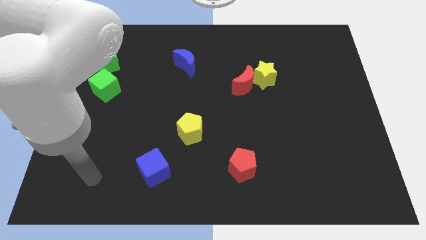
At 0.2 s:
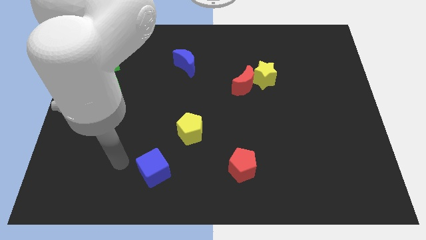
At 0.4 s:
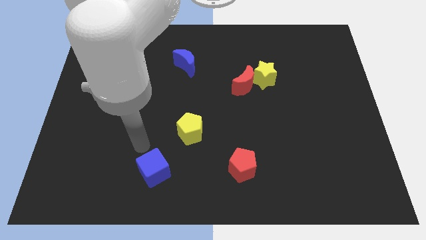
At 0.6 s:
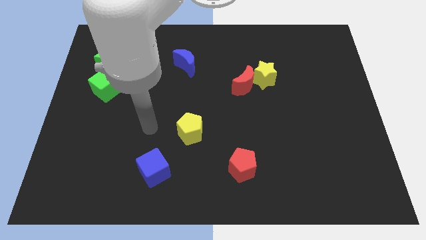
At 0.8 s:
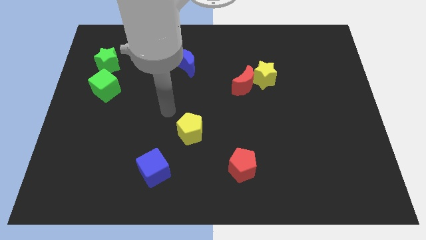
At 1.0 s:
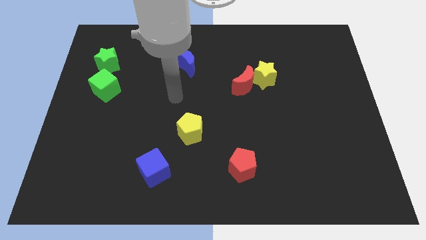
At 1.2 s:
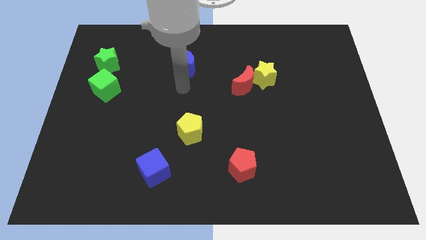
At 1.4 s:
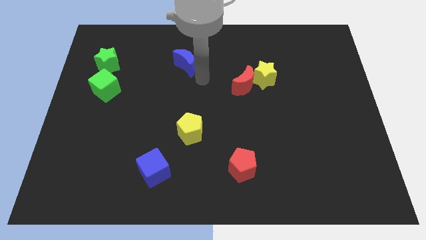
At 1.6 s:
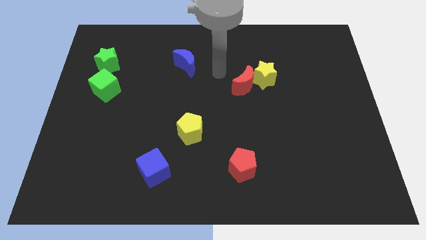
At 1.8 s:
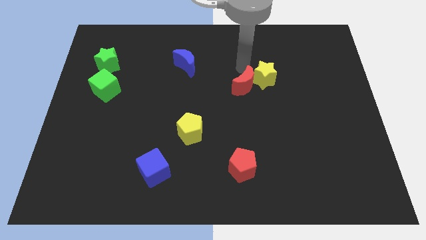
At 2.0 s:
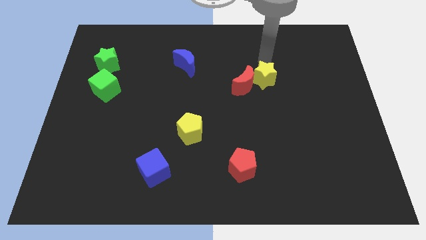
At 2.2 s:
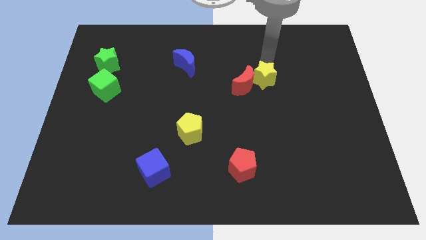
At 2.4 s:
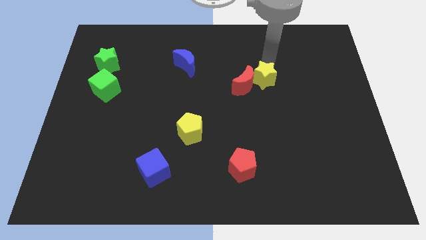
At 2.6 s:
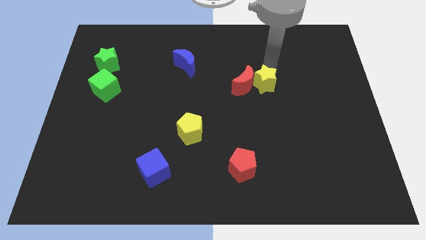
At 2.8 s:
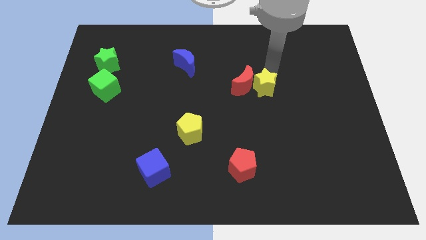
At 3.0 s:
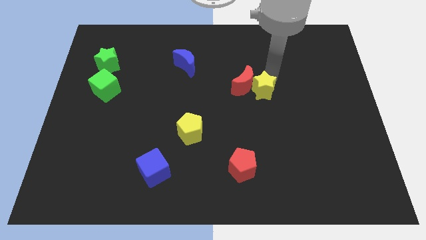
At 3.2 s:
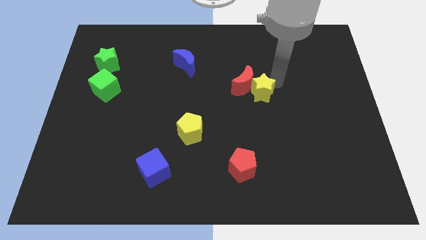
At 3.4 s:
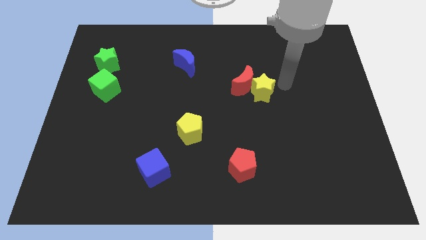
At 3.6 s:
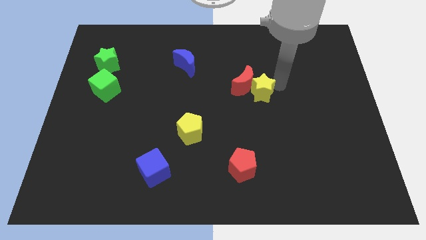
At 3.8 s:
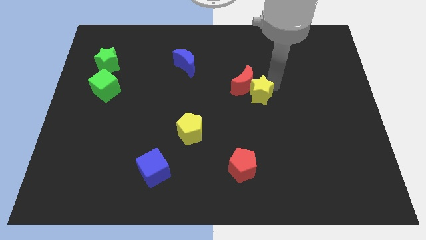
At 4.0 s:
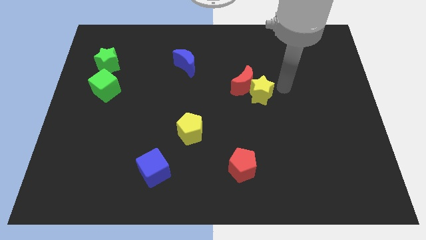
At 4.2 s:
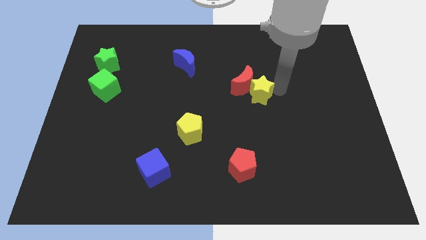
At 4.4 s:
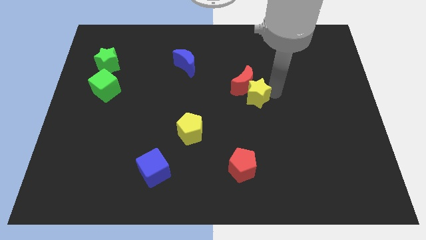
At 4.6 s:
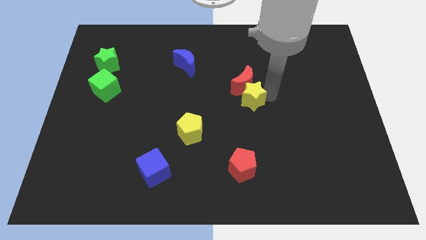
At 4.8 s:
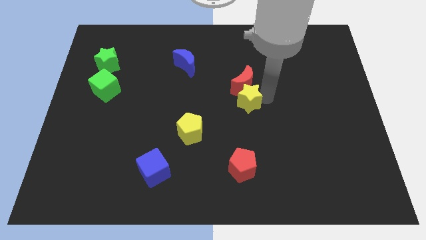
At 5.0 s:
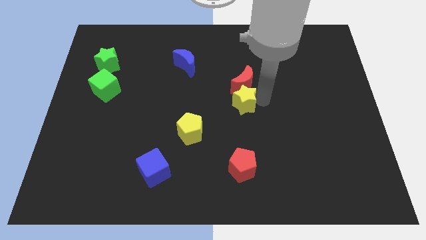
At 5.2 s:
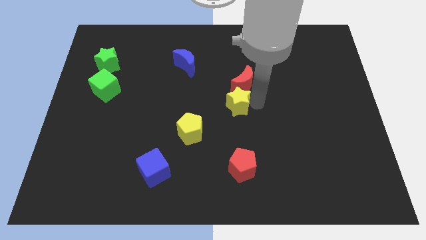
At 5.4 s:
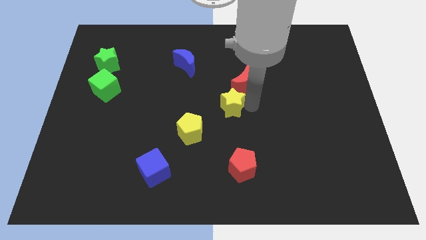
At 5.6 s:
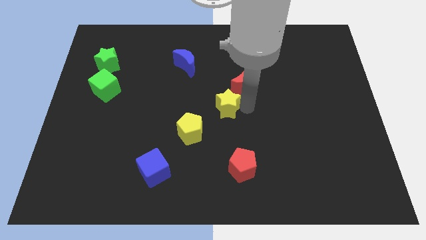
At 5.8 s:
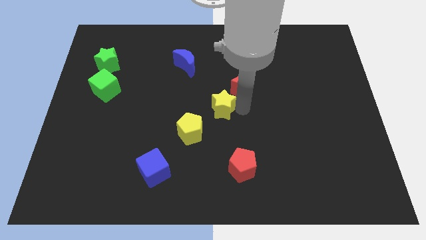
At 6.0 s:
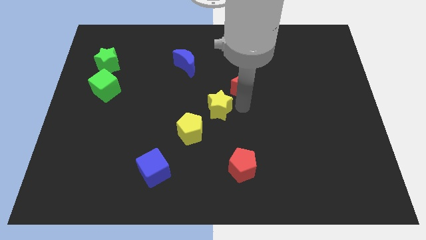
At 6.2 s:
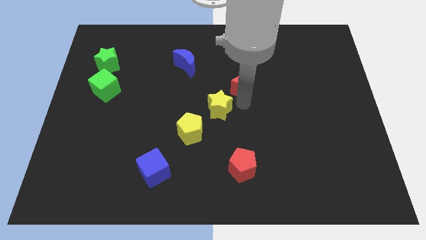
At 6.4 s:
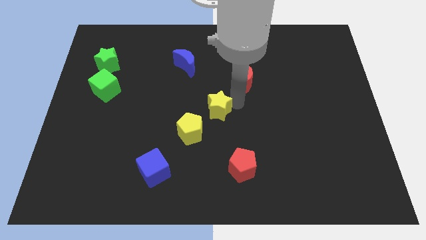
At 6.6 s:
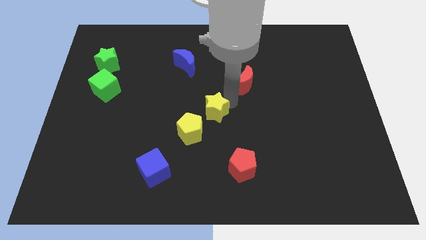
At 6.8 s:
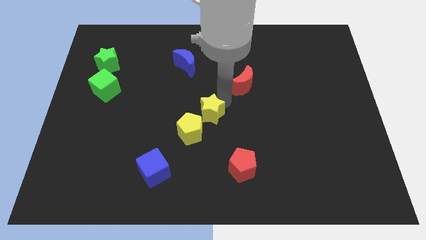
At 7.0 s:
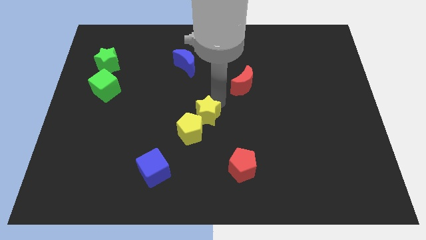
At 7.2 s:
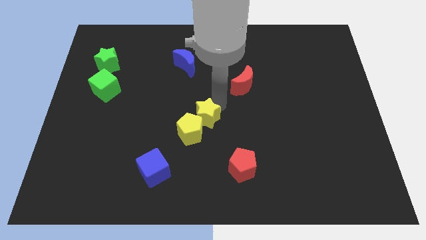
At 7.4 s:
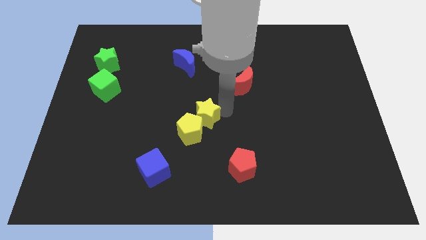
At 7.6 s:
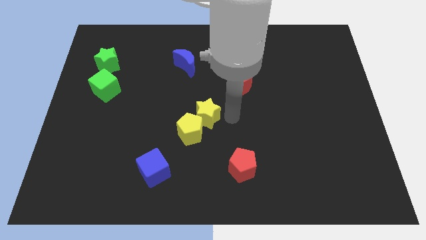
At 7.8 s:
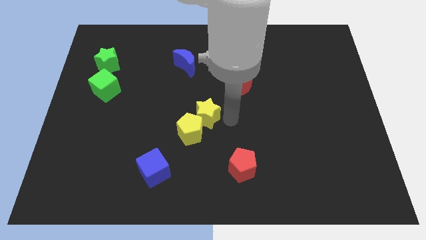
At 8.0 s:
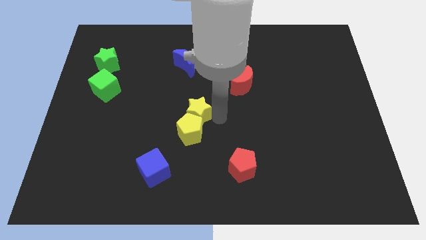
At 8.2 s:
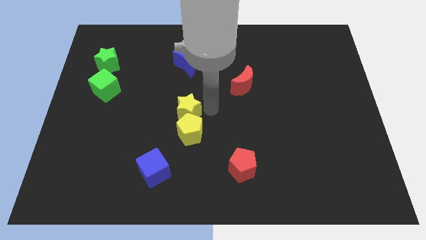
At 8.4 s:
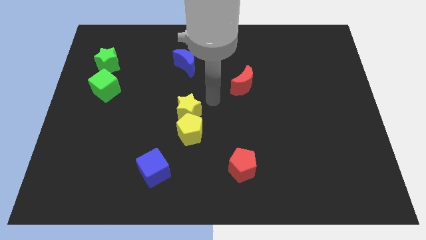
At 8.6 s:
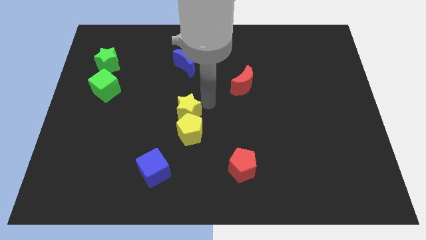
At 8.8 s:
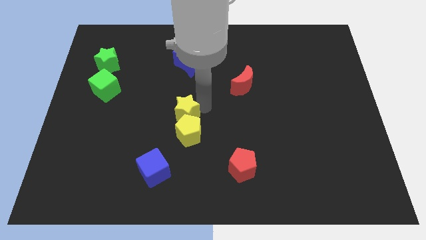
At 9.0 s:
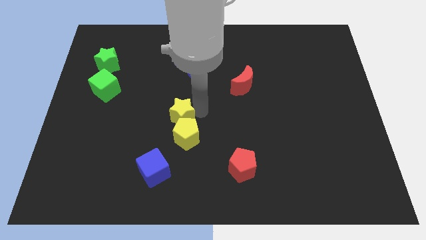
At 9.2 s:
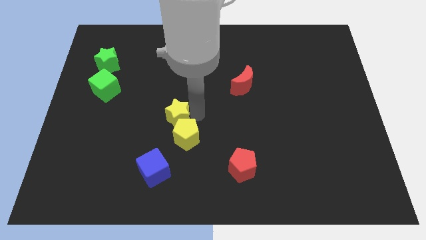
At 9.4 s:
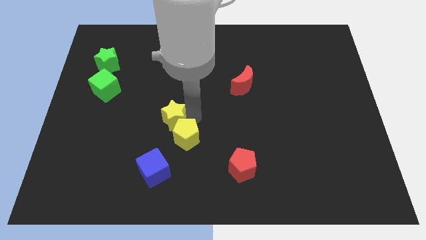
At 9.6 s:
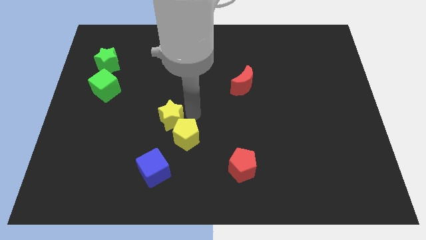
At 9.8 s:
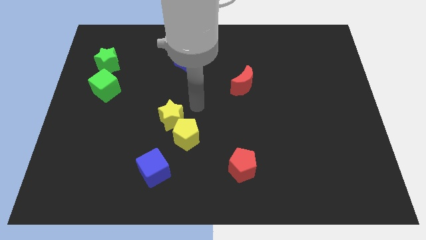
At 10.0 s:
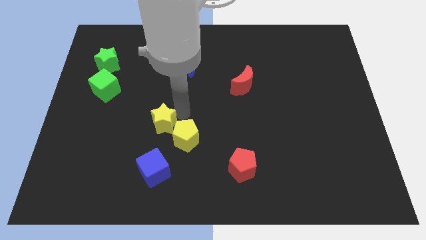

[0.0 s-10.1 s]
slide the yellow star to the left side of the yellow pentagon

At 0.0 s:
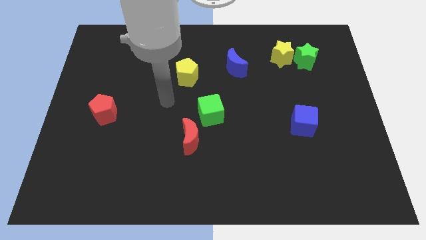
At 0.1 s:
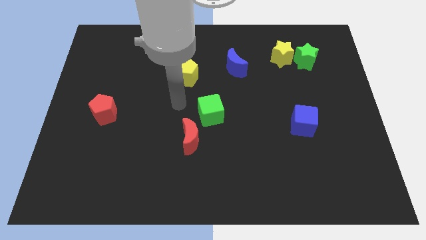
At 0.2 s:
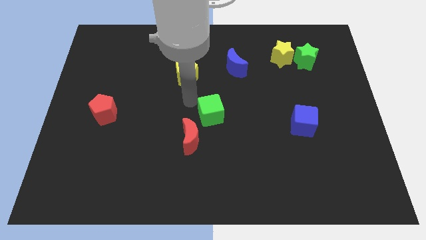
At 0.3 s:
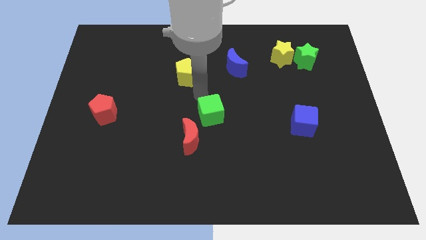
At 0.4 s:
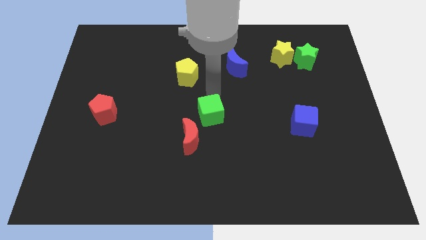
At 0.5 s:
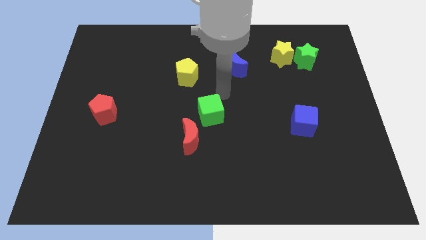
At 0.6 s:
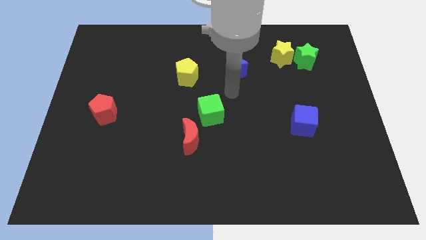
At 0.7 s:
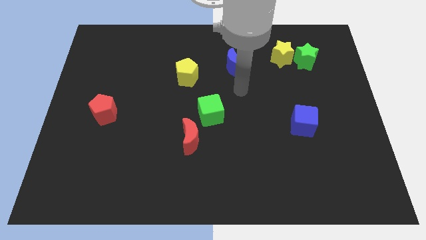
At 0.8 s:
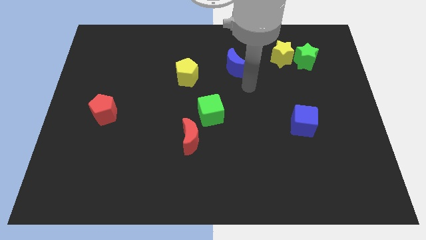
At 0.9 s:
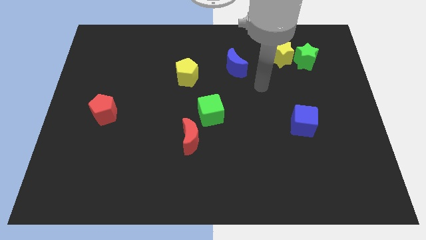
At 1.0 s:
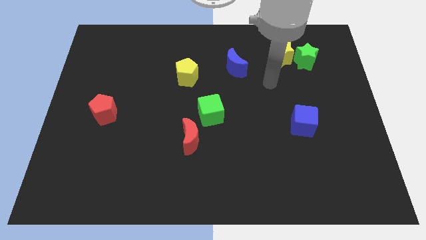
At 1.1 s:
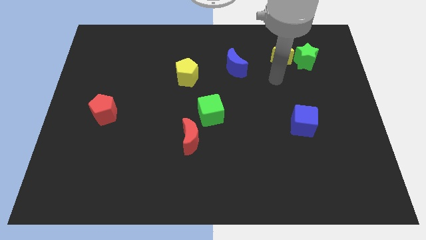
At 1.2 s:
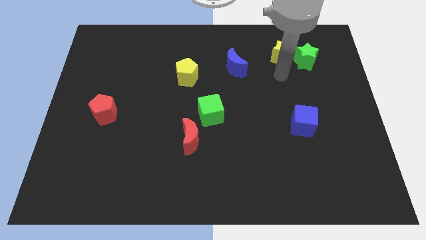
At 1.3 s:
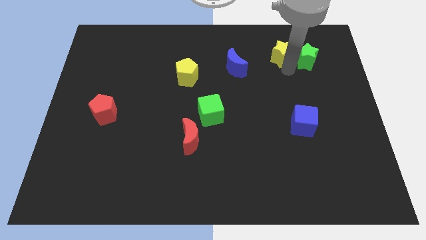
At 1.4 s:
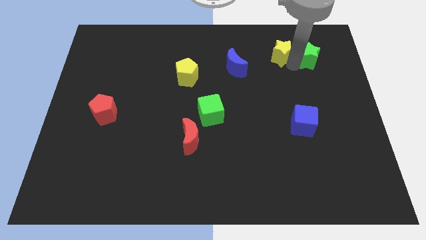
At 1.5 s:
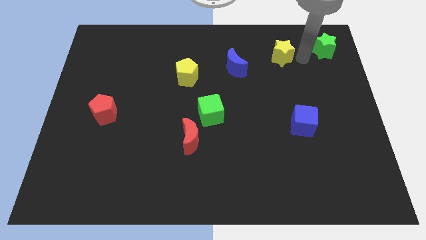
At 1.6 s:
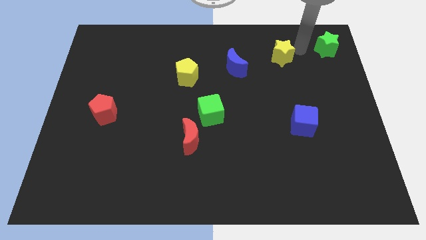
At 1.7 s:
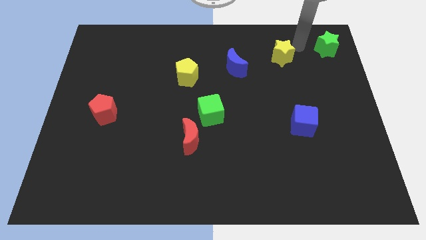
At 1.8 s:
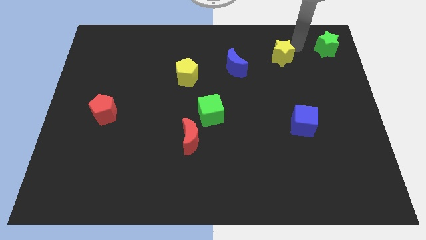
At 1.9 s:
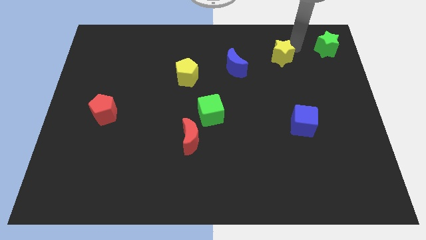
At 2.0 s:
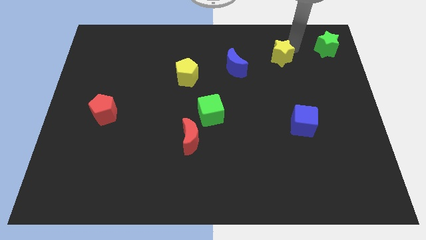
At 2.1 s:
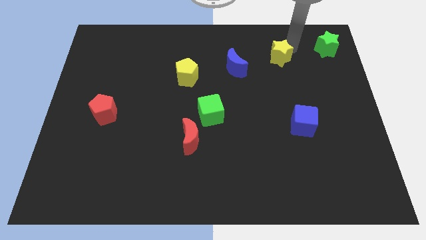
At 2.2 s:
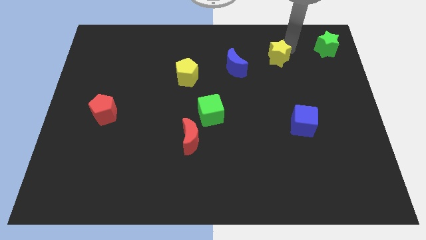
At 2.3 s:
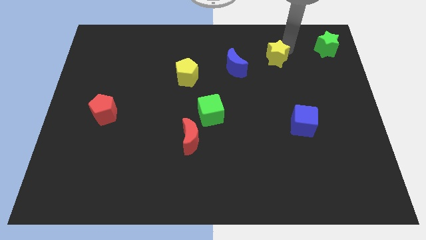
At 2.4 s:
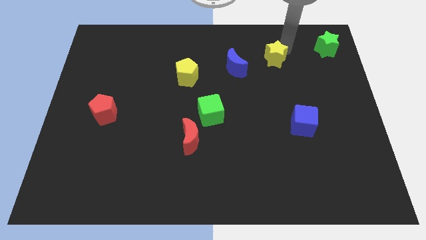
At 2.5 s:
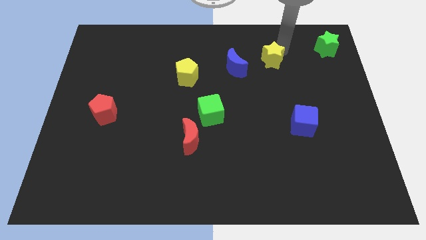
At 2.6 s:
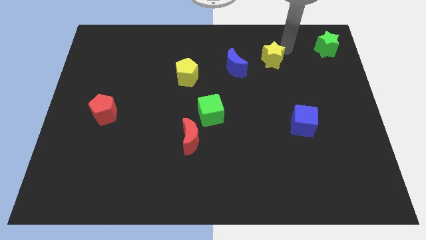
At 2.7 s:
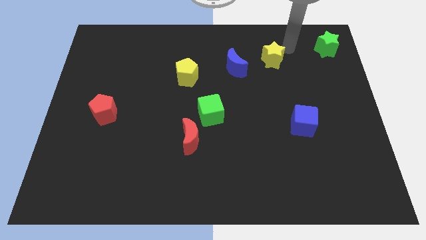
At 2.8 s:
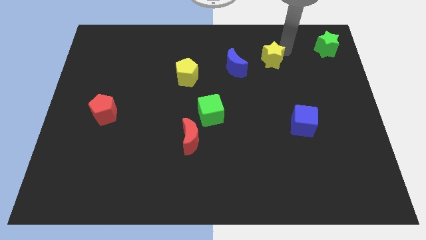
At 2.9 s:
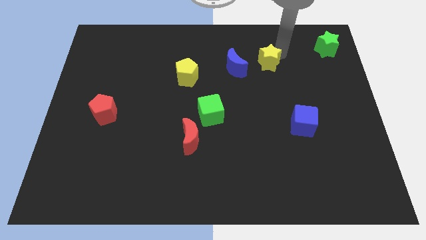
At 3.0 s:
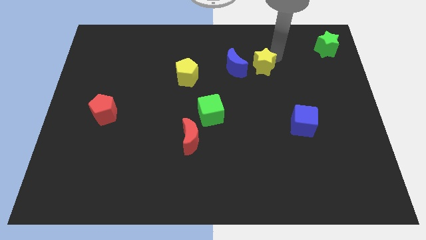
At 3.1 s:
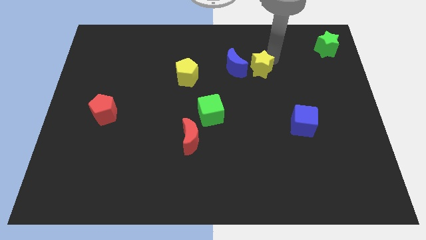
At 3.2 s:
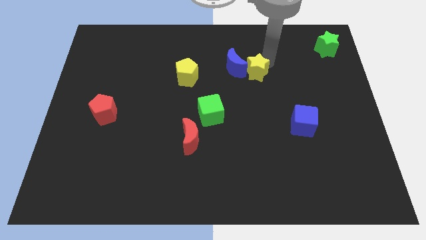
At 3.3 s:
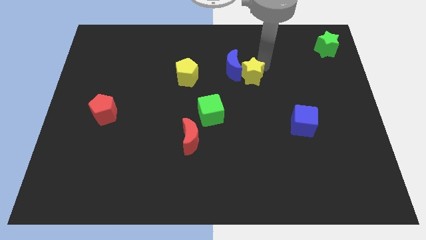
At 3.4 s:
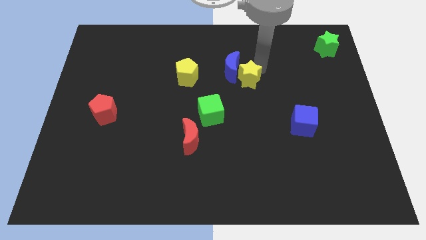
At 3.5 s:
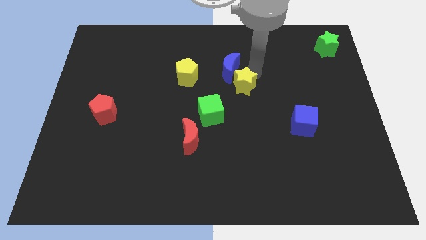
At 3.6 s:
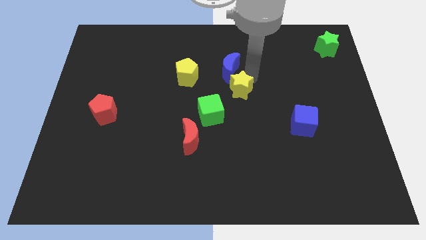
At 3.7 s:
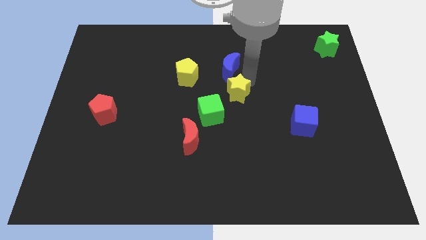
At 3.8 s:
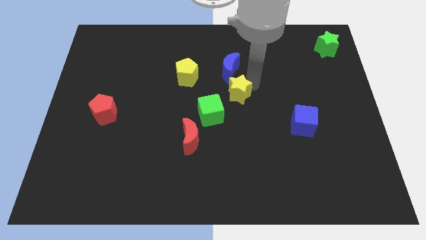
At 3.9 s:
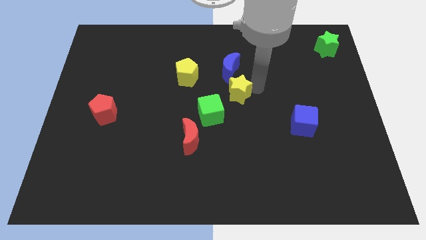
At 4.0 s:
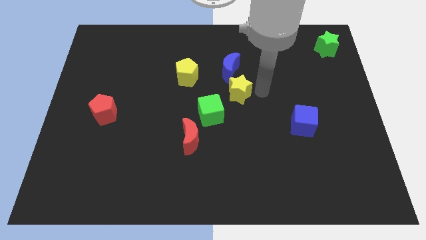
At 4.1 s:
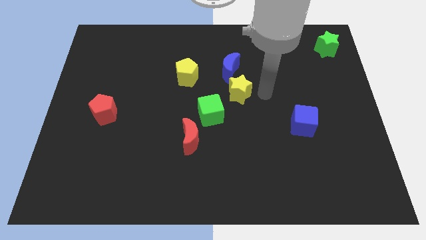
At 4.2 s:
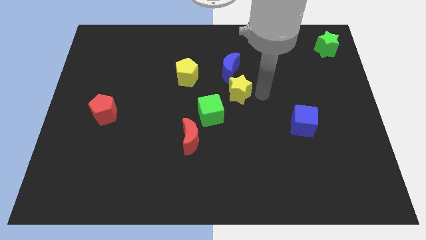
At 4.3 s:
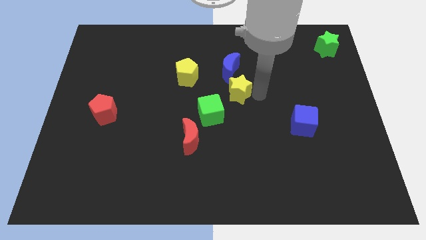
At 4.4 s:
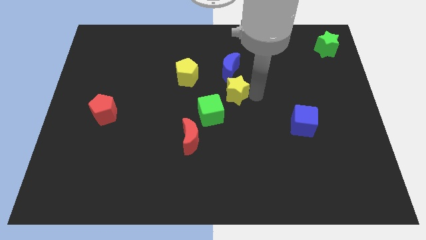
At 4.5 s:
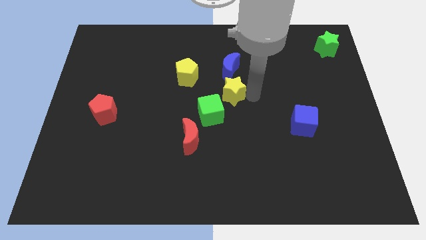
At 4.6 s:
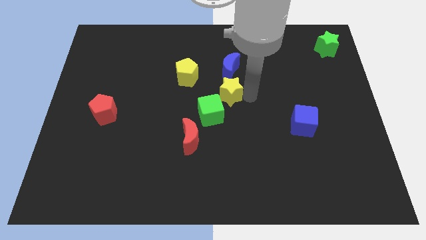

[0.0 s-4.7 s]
move the yellow star to the bottom right of the yellow pentagon
